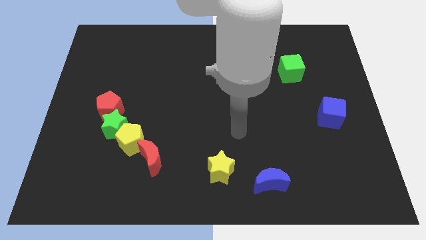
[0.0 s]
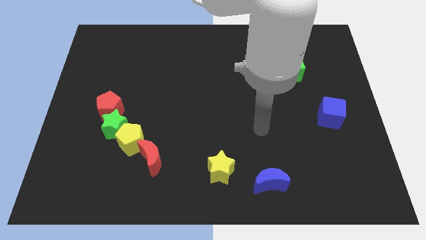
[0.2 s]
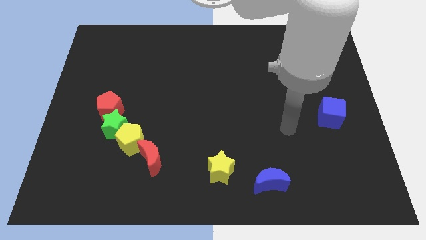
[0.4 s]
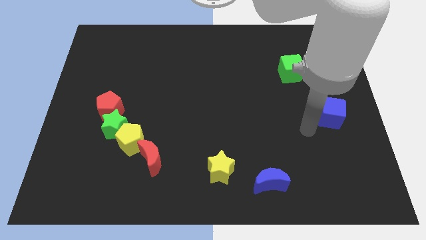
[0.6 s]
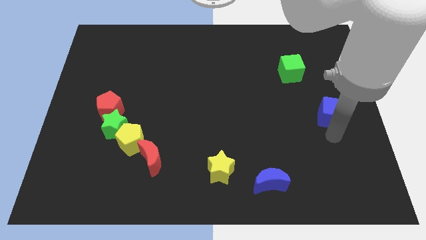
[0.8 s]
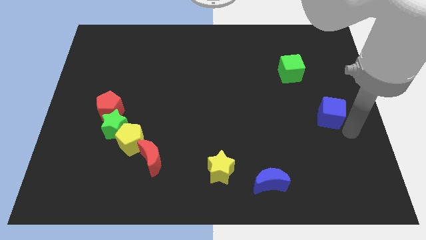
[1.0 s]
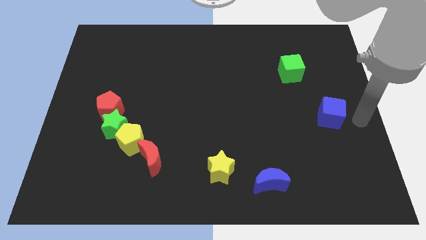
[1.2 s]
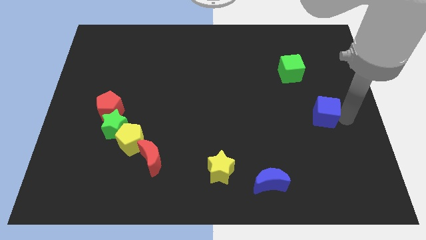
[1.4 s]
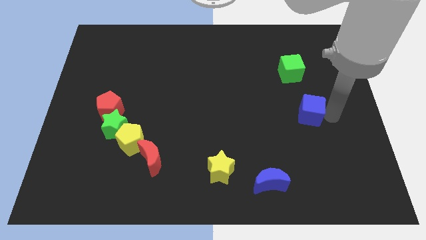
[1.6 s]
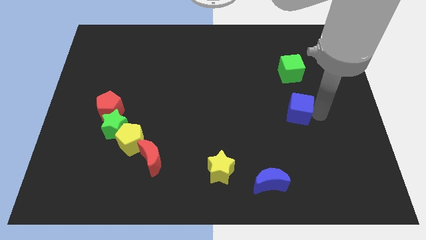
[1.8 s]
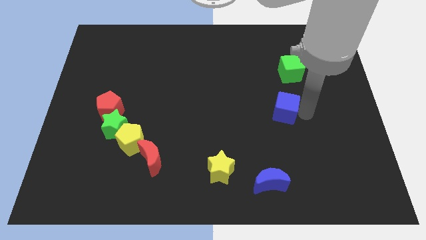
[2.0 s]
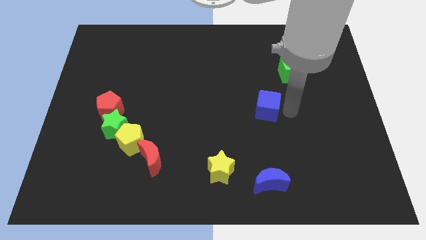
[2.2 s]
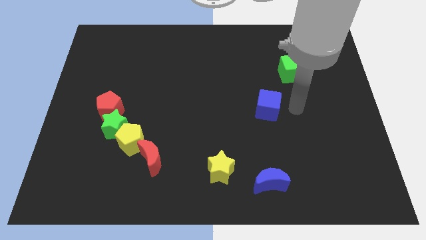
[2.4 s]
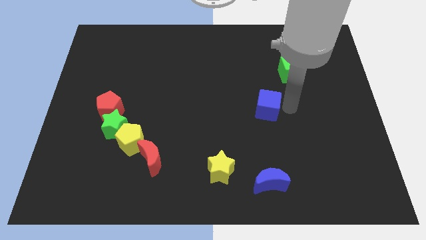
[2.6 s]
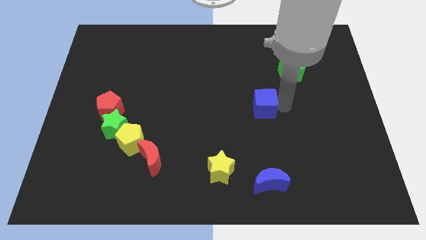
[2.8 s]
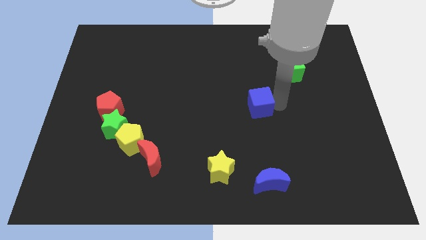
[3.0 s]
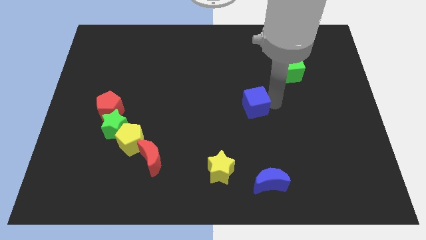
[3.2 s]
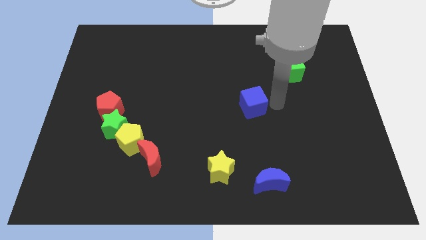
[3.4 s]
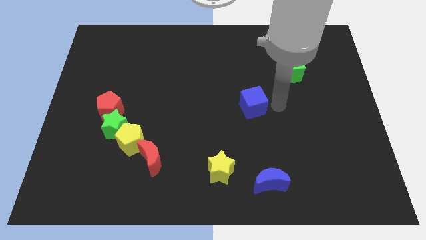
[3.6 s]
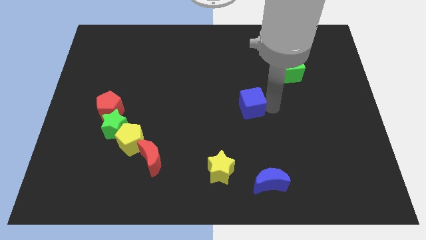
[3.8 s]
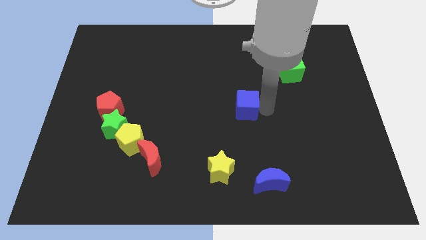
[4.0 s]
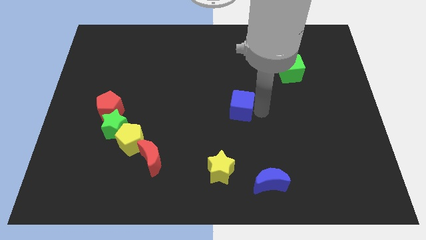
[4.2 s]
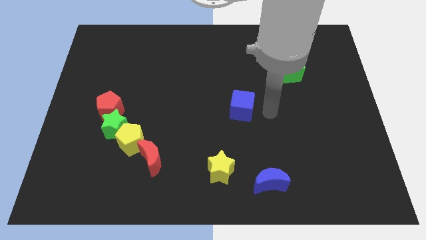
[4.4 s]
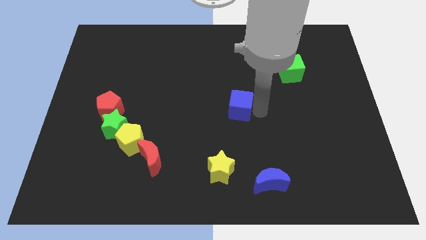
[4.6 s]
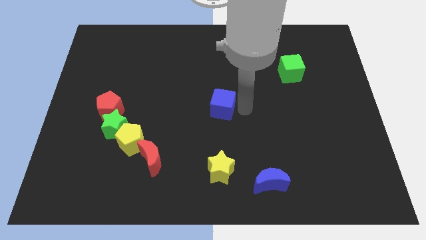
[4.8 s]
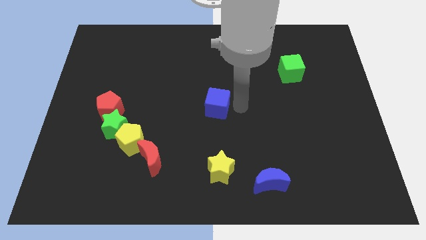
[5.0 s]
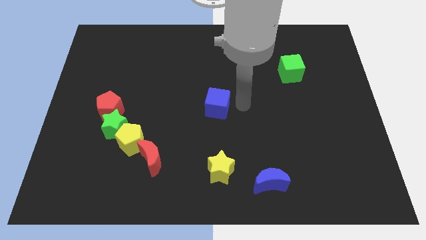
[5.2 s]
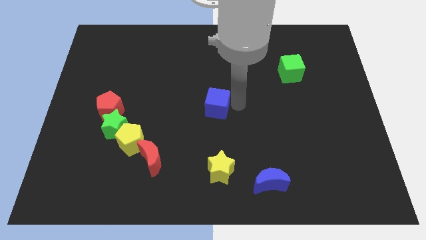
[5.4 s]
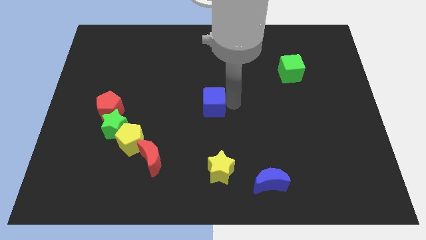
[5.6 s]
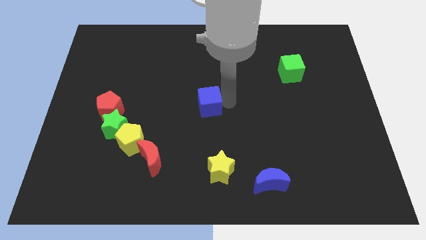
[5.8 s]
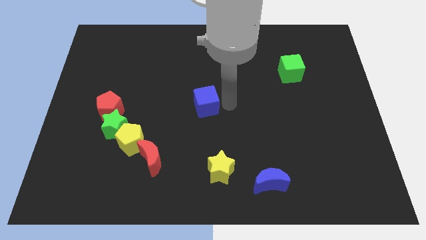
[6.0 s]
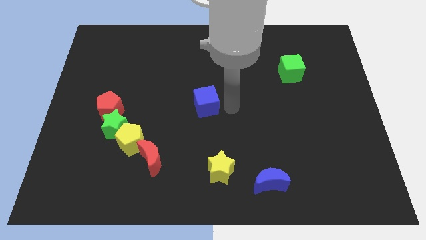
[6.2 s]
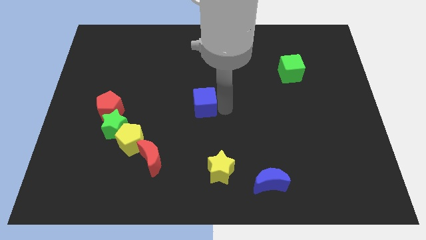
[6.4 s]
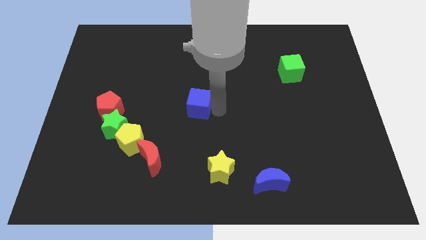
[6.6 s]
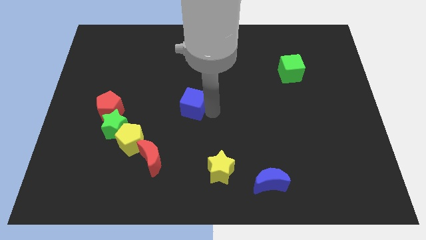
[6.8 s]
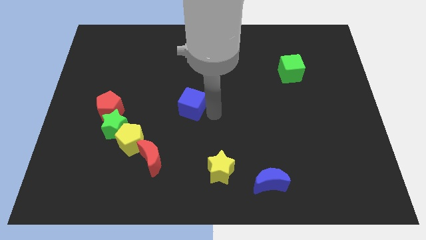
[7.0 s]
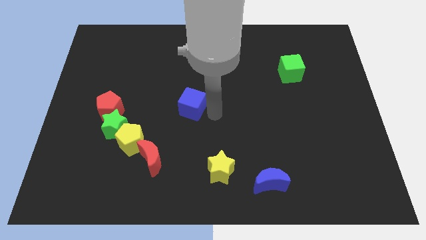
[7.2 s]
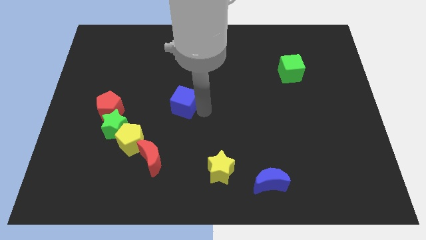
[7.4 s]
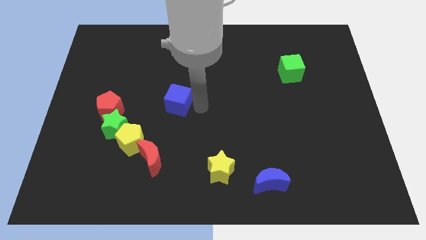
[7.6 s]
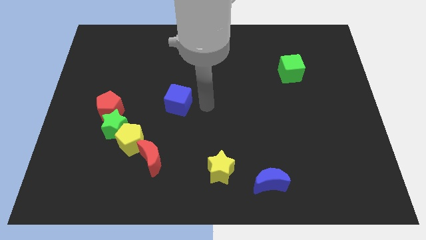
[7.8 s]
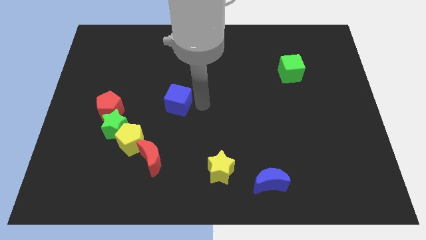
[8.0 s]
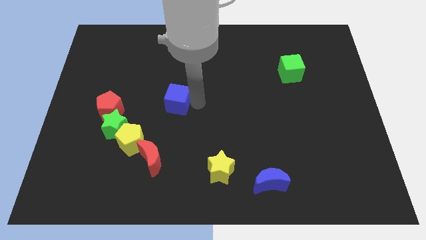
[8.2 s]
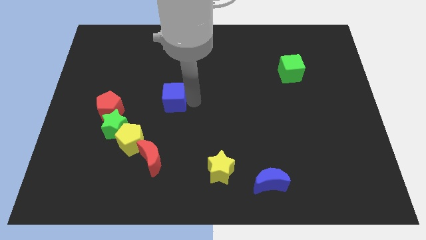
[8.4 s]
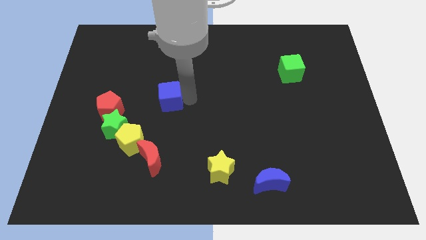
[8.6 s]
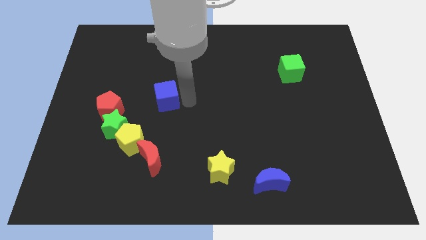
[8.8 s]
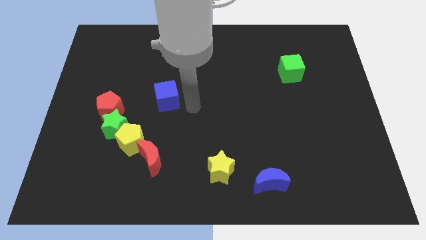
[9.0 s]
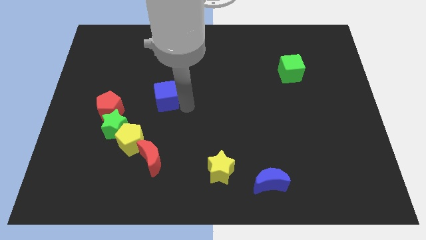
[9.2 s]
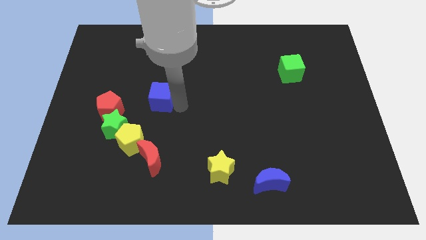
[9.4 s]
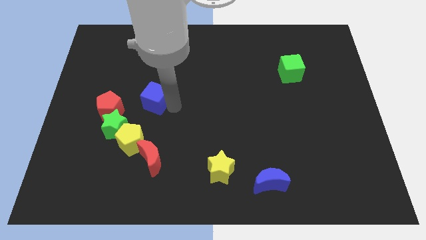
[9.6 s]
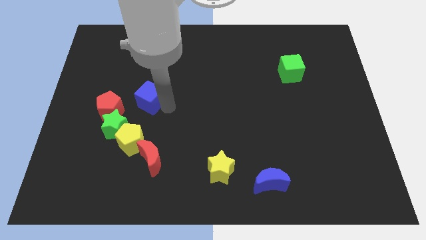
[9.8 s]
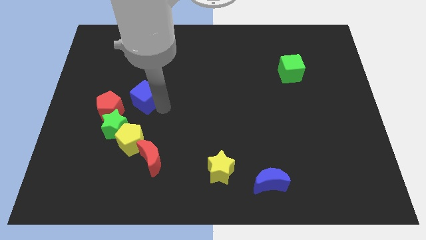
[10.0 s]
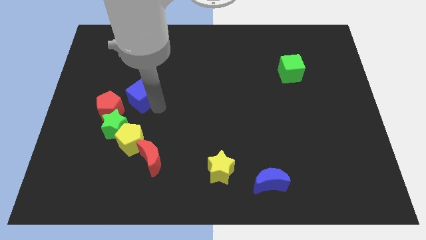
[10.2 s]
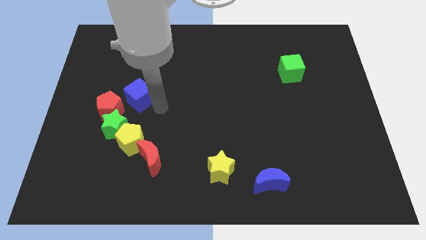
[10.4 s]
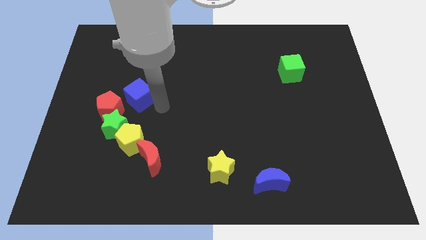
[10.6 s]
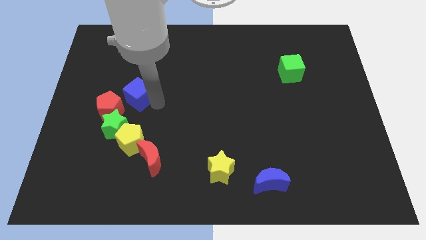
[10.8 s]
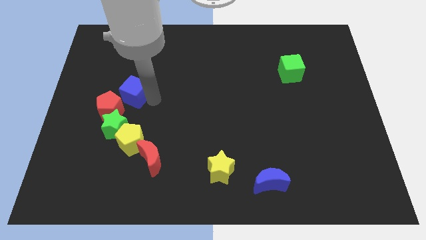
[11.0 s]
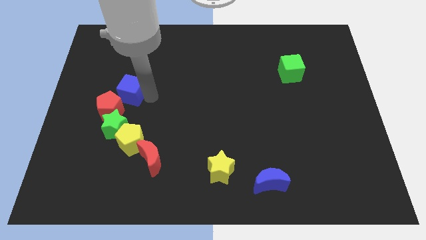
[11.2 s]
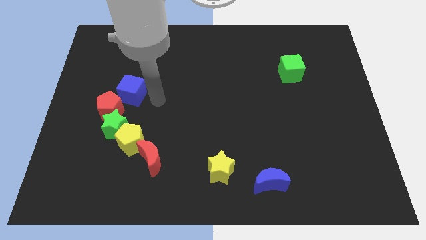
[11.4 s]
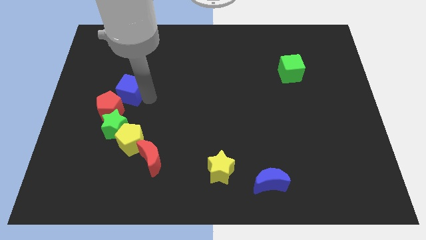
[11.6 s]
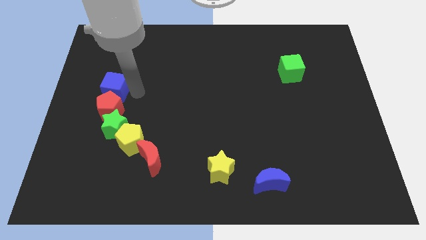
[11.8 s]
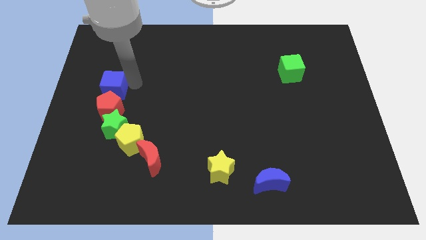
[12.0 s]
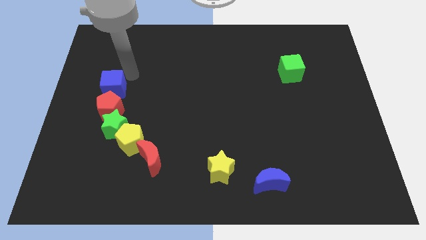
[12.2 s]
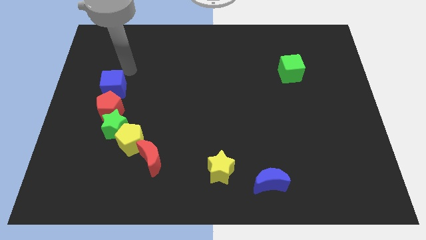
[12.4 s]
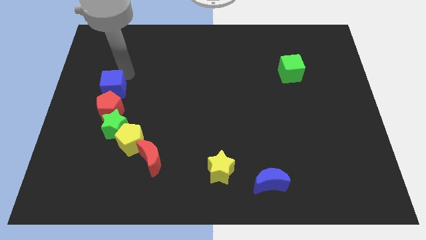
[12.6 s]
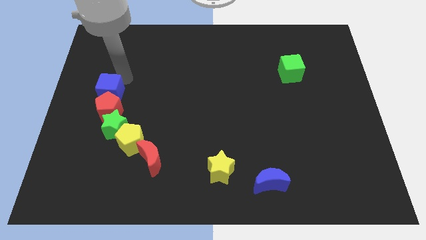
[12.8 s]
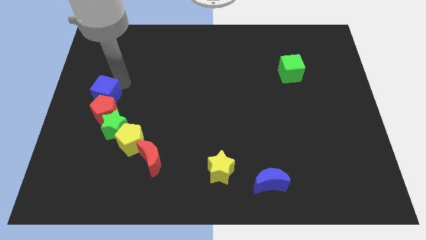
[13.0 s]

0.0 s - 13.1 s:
slide the blue cube diagonally up and to the left of the green star
